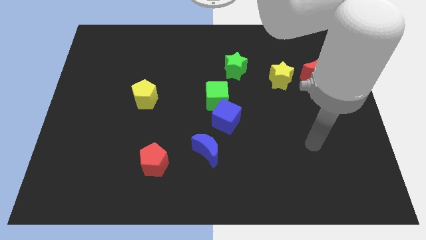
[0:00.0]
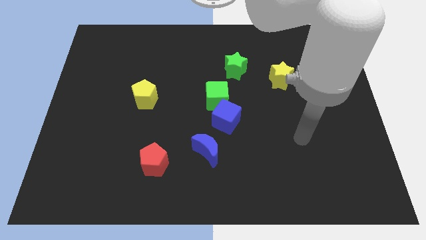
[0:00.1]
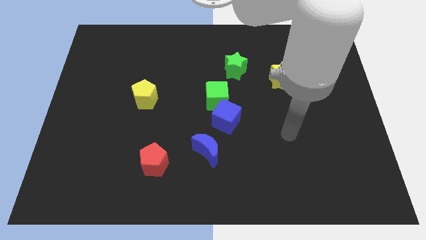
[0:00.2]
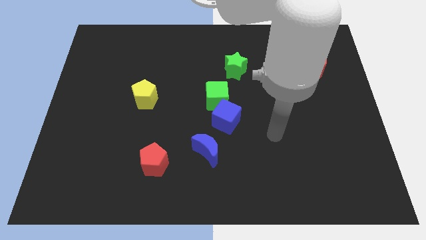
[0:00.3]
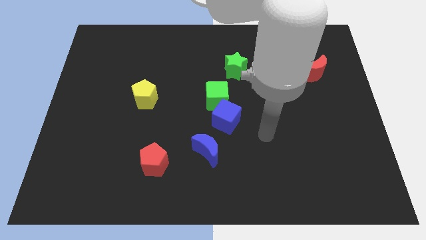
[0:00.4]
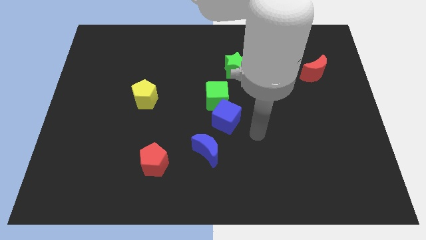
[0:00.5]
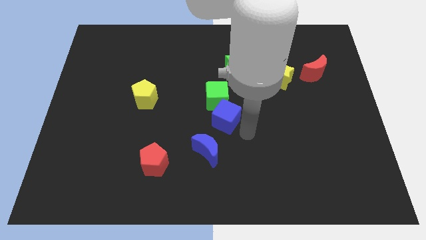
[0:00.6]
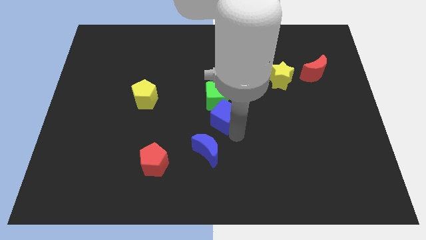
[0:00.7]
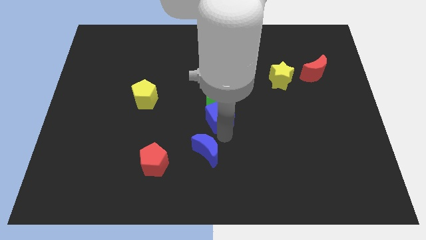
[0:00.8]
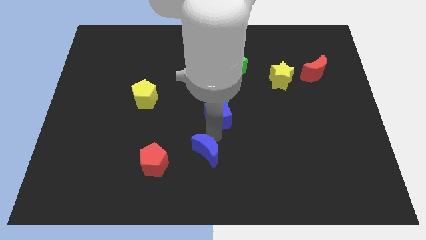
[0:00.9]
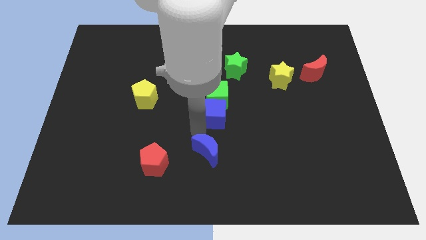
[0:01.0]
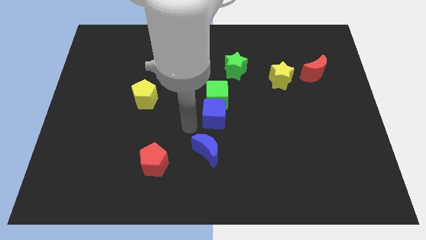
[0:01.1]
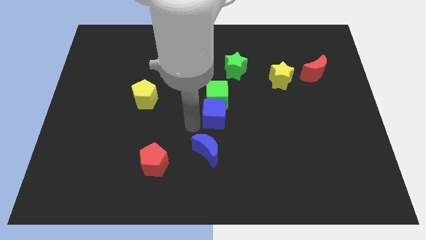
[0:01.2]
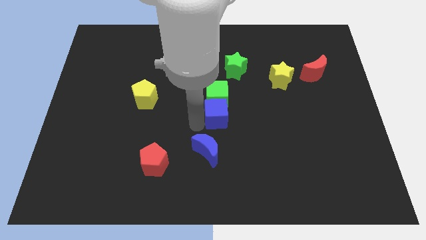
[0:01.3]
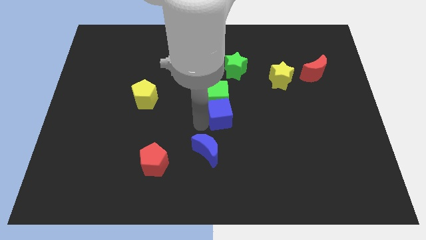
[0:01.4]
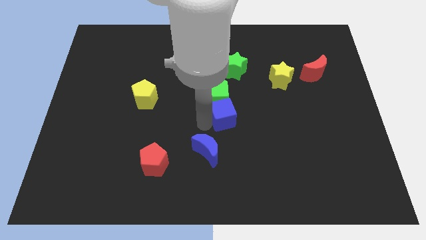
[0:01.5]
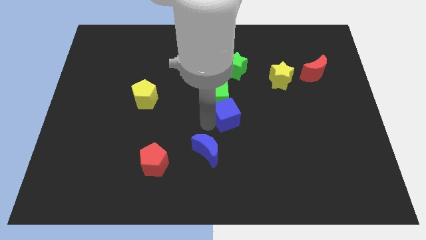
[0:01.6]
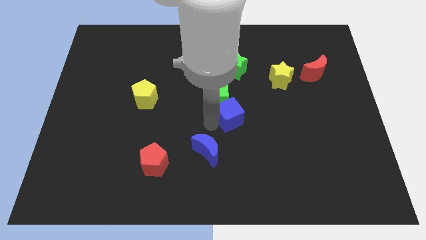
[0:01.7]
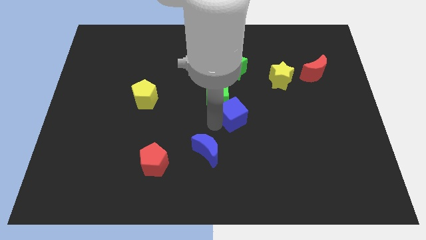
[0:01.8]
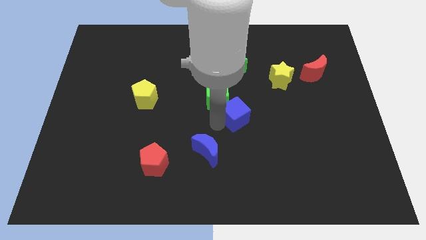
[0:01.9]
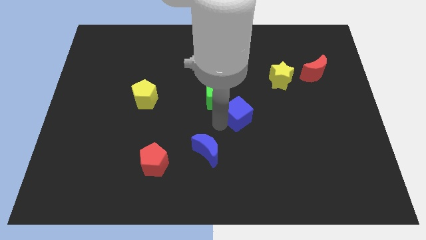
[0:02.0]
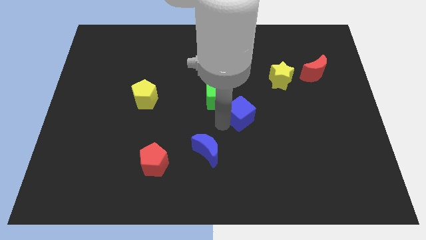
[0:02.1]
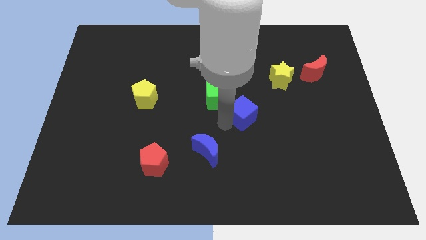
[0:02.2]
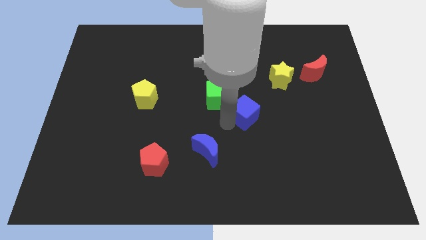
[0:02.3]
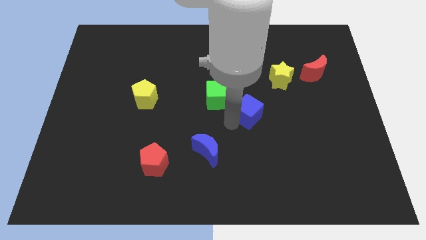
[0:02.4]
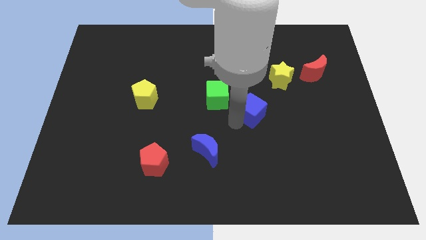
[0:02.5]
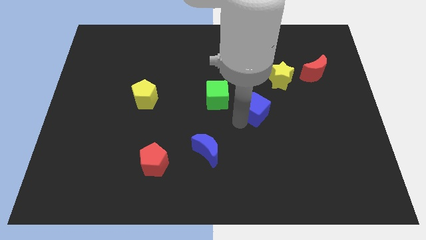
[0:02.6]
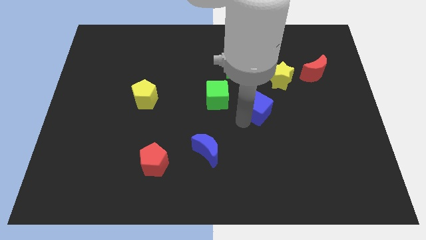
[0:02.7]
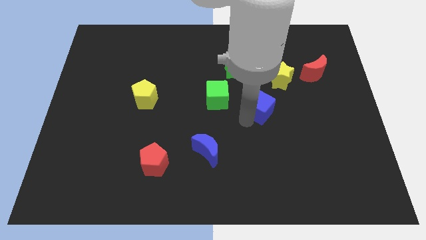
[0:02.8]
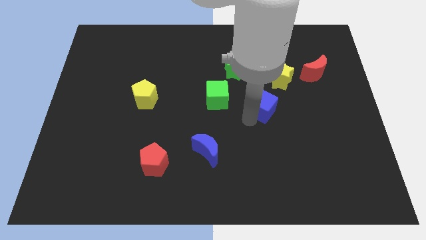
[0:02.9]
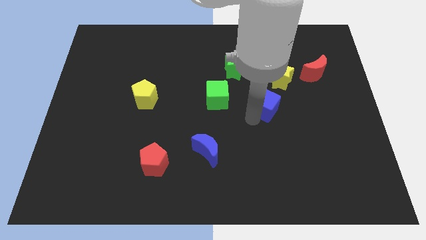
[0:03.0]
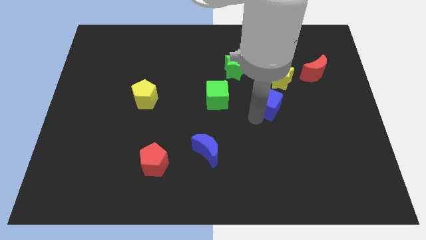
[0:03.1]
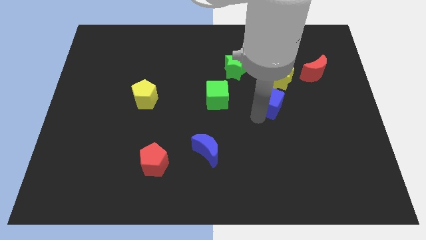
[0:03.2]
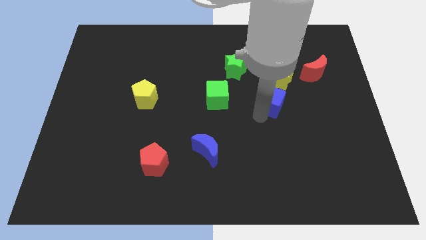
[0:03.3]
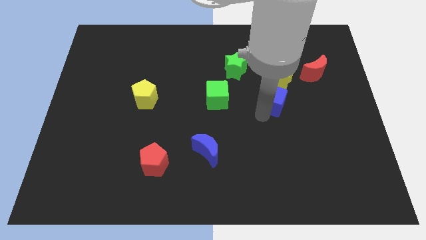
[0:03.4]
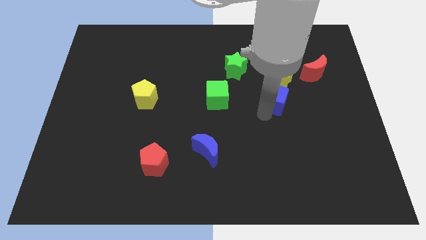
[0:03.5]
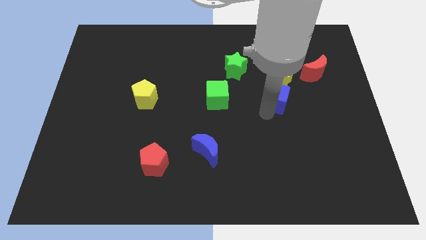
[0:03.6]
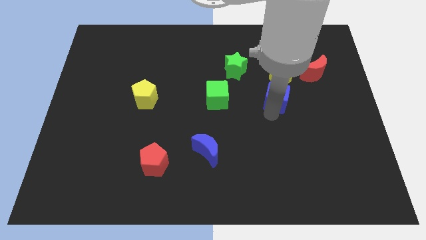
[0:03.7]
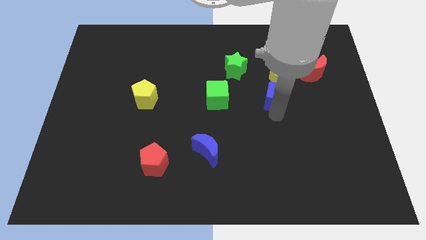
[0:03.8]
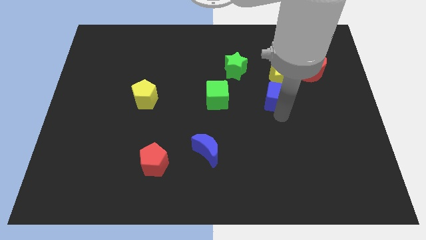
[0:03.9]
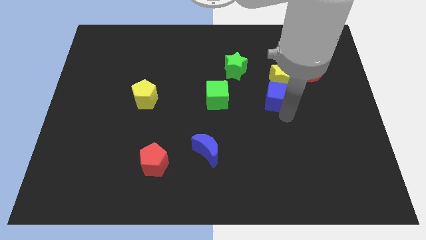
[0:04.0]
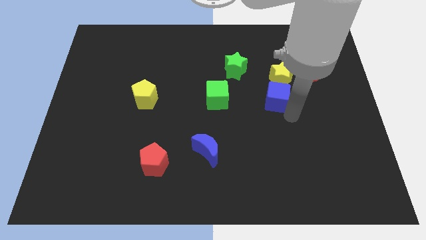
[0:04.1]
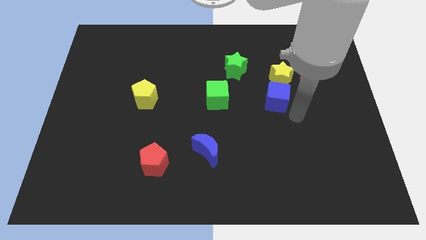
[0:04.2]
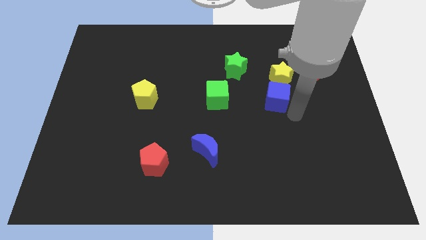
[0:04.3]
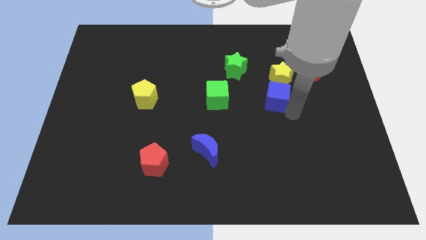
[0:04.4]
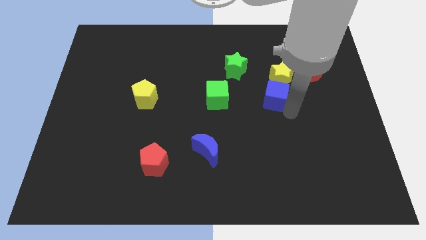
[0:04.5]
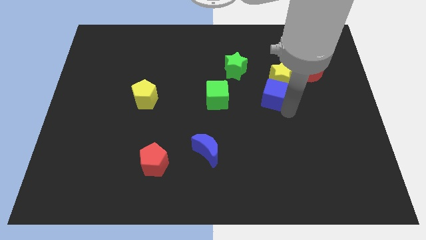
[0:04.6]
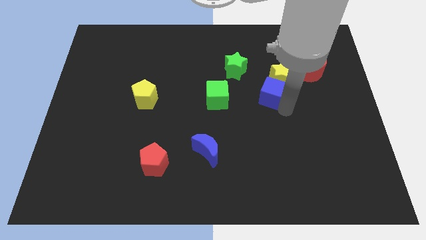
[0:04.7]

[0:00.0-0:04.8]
move the blue cube next to the yellow star

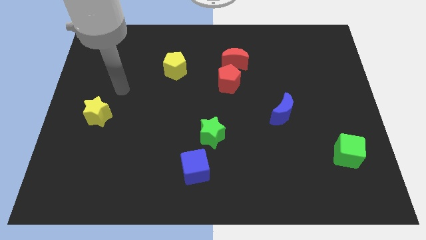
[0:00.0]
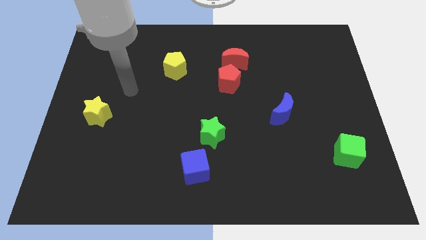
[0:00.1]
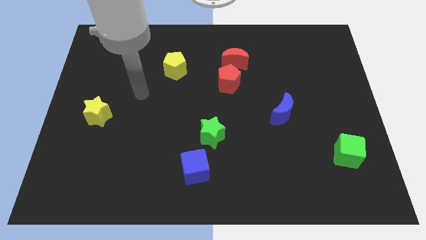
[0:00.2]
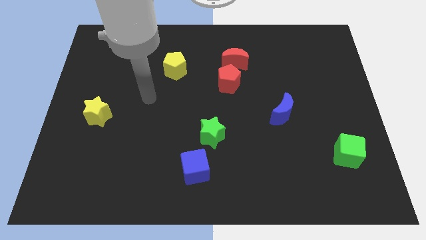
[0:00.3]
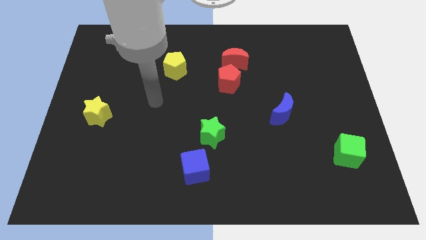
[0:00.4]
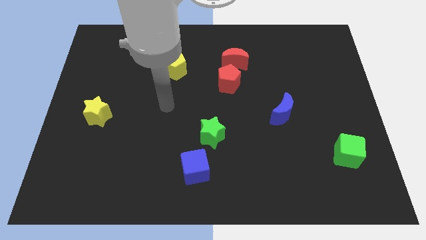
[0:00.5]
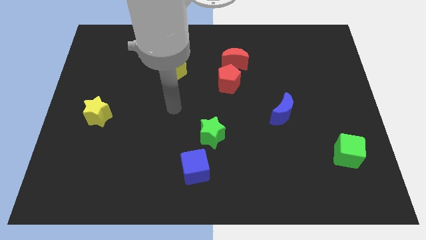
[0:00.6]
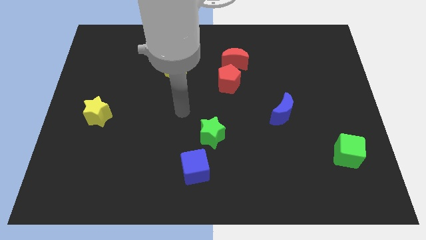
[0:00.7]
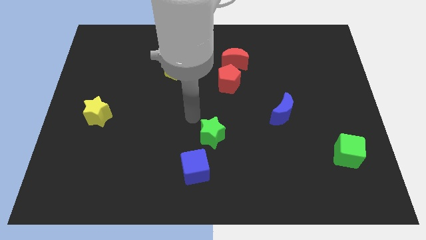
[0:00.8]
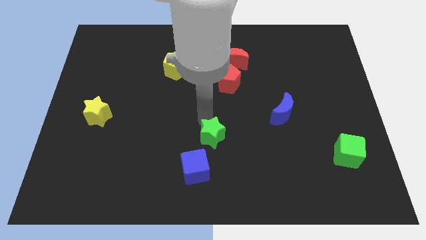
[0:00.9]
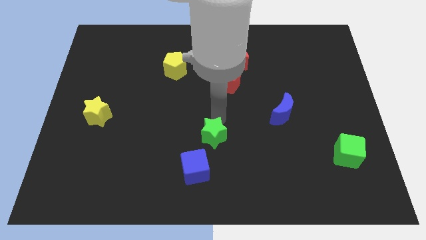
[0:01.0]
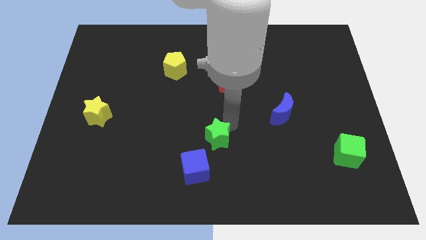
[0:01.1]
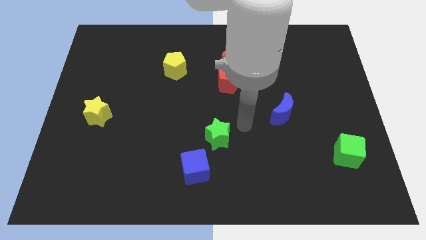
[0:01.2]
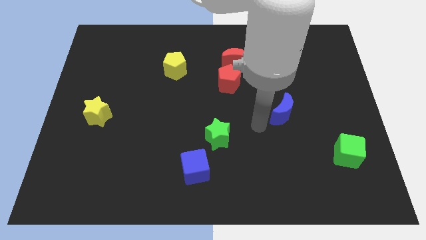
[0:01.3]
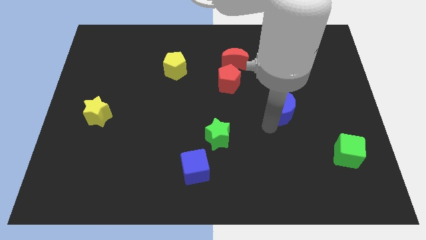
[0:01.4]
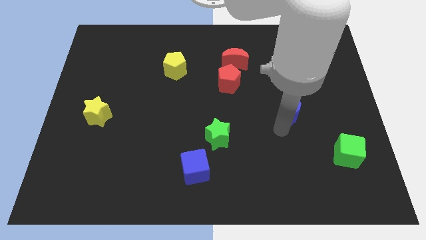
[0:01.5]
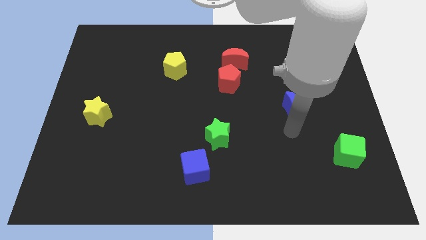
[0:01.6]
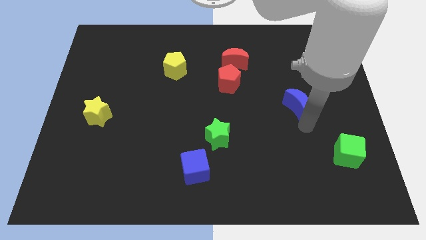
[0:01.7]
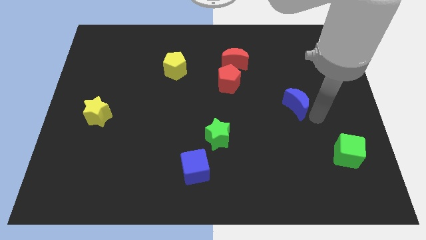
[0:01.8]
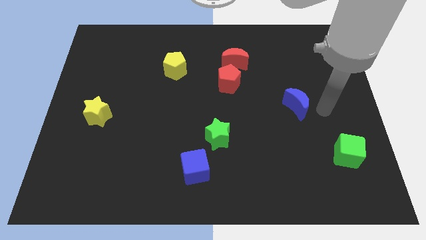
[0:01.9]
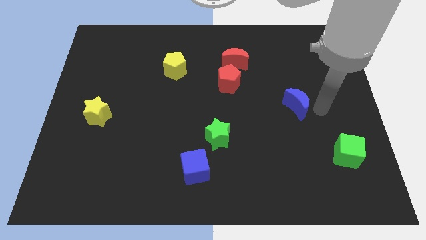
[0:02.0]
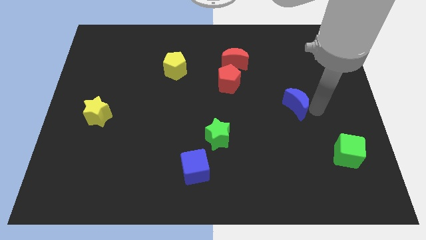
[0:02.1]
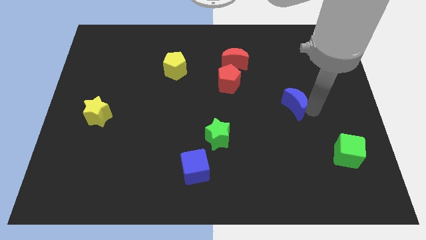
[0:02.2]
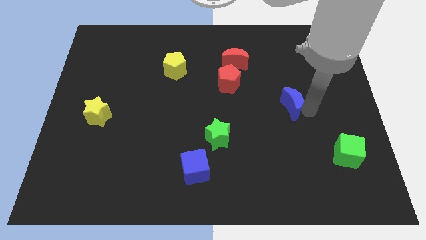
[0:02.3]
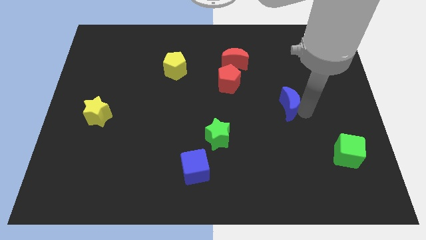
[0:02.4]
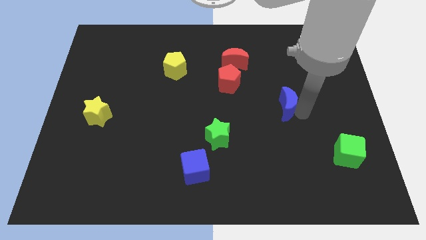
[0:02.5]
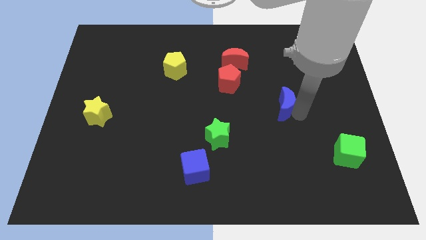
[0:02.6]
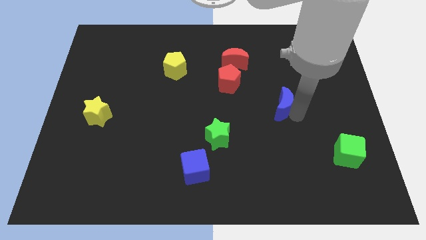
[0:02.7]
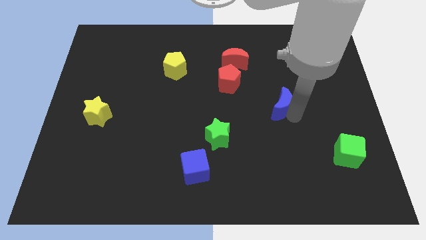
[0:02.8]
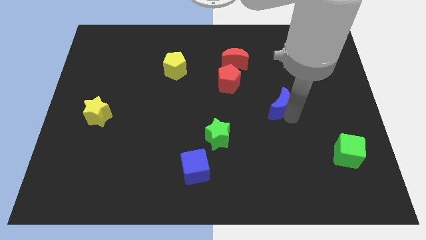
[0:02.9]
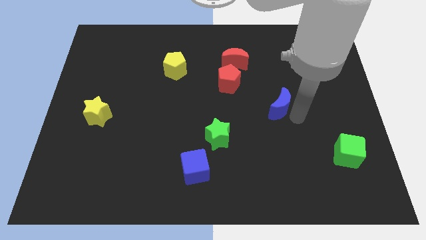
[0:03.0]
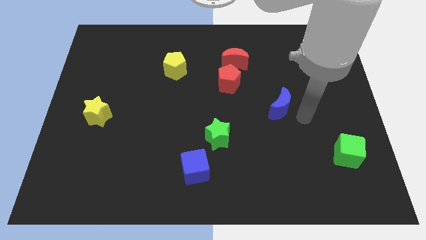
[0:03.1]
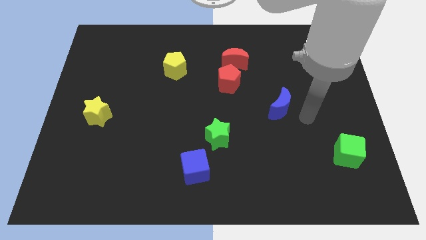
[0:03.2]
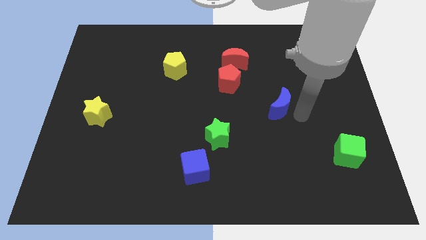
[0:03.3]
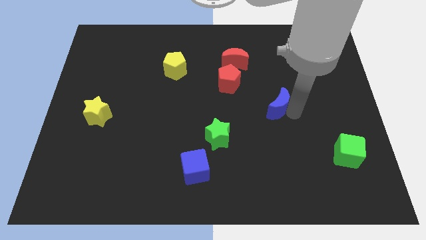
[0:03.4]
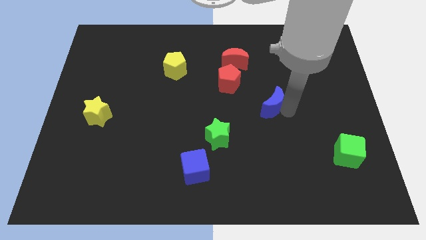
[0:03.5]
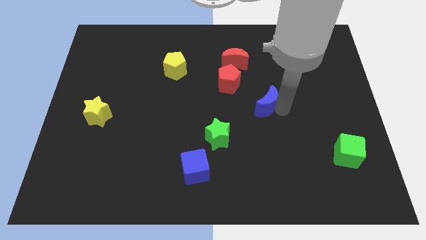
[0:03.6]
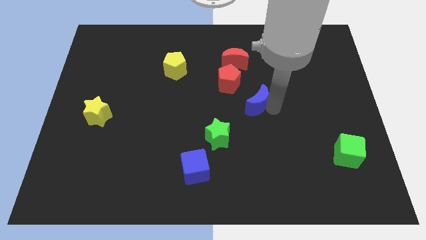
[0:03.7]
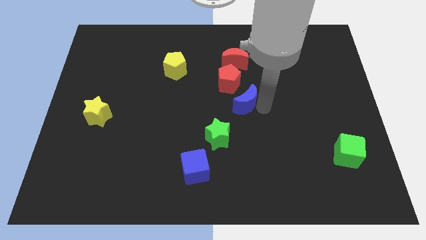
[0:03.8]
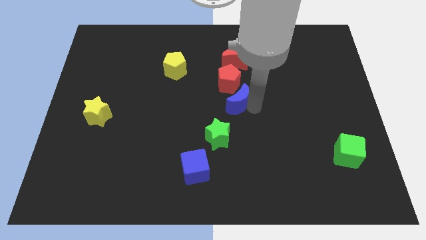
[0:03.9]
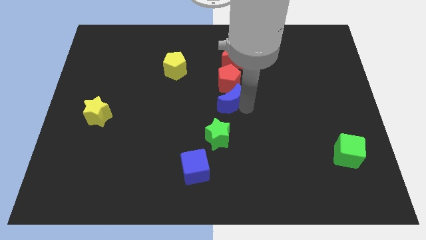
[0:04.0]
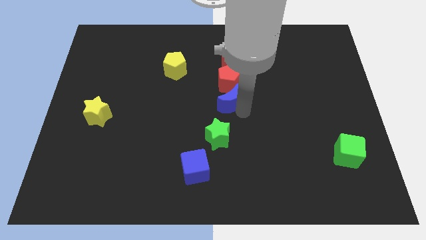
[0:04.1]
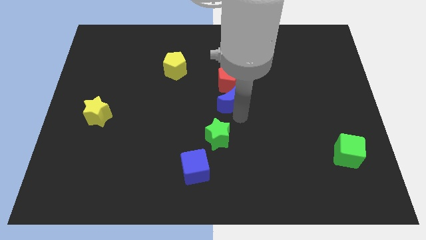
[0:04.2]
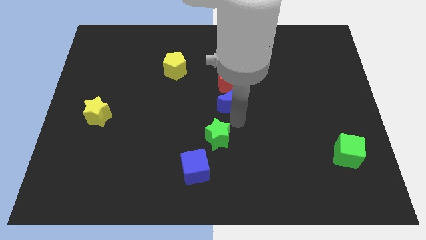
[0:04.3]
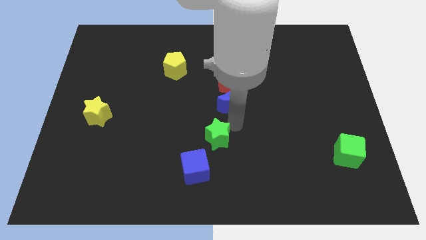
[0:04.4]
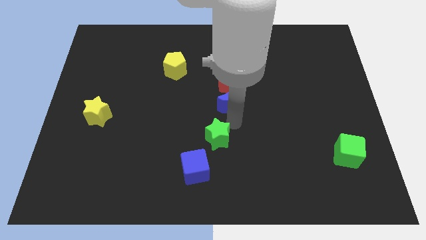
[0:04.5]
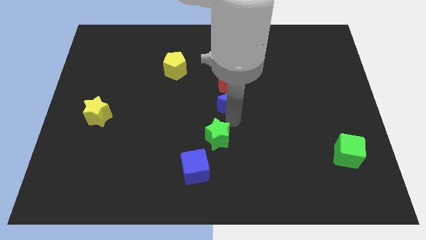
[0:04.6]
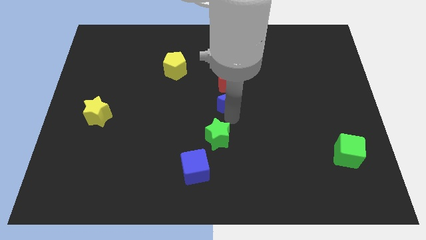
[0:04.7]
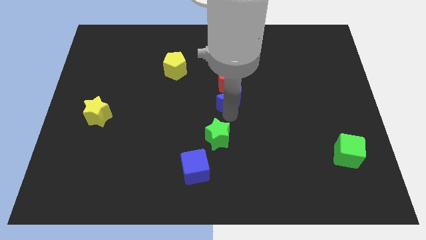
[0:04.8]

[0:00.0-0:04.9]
move the blue moon next to the red pentagon
